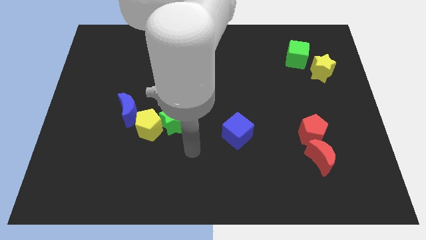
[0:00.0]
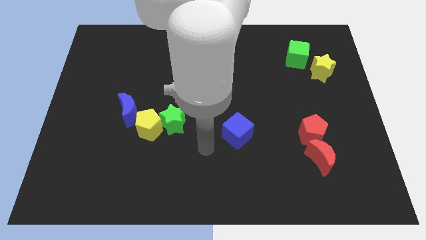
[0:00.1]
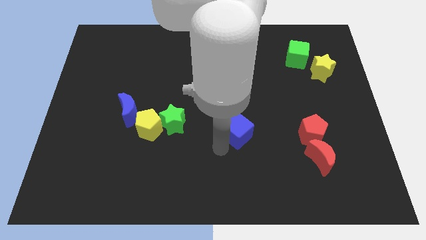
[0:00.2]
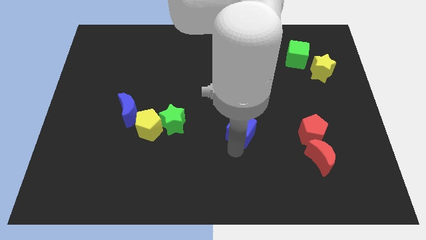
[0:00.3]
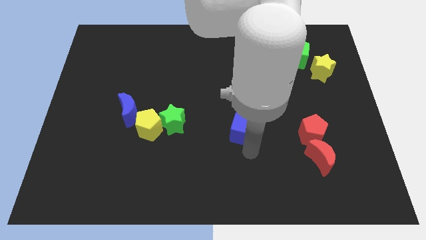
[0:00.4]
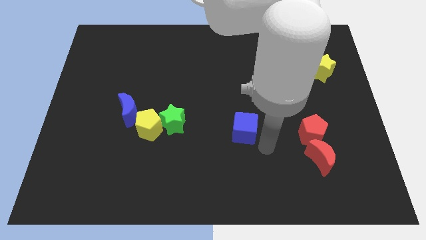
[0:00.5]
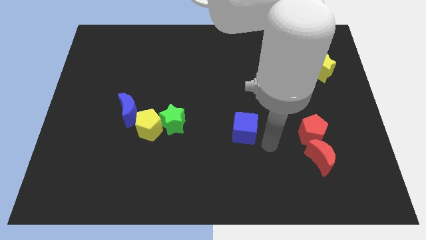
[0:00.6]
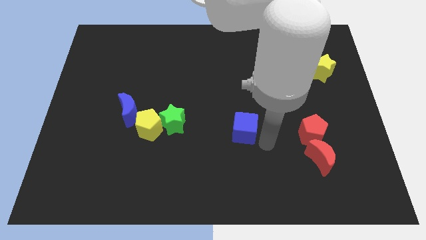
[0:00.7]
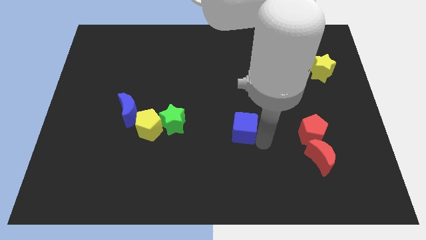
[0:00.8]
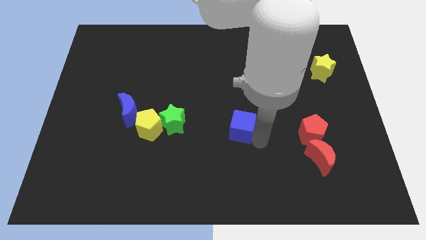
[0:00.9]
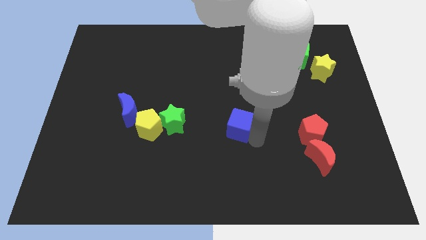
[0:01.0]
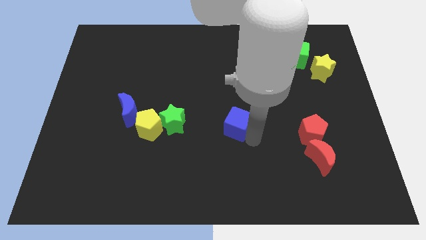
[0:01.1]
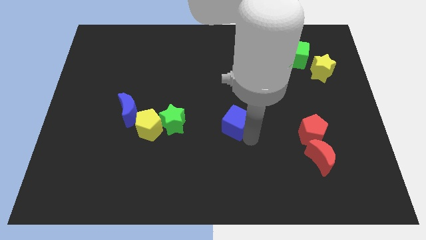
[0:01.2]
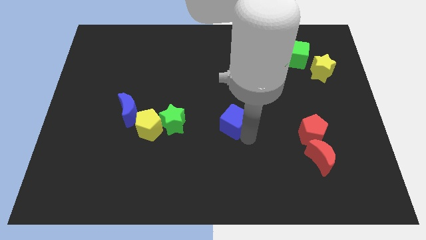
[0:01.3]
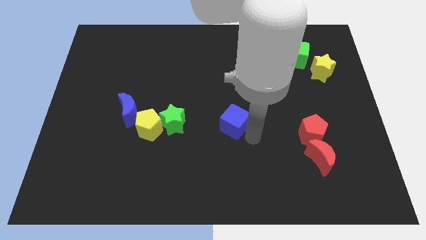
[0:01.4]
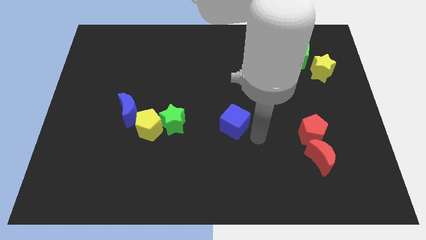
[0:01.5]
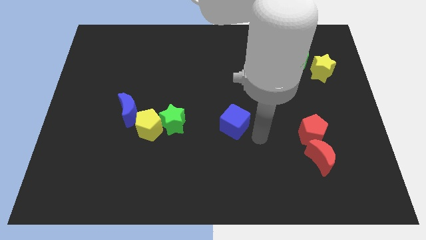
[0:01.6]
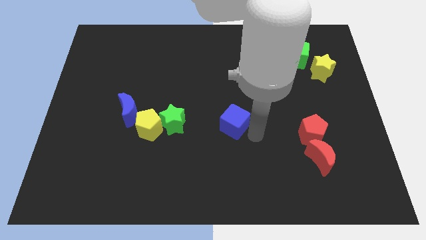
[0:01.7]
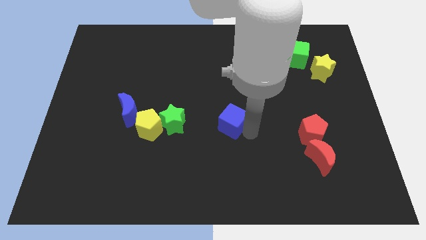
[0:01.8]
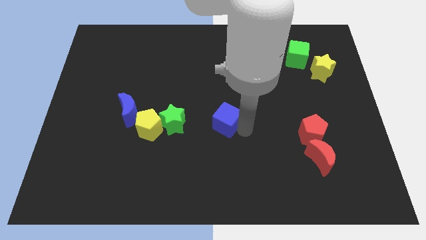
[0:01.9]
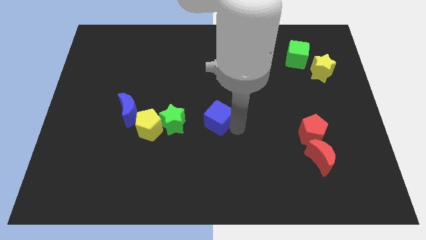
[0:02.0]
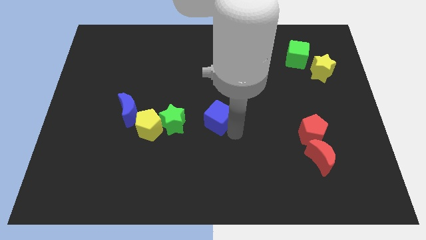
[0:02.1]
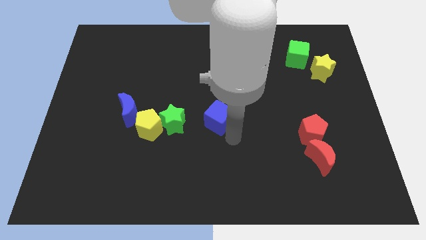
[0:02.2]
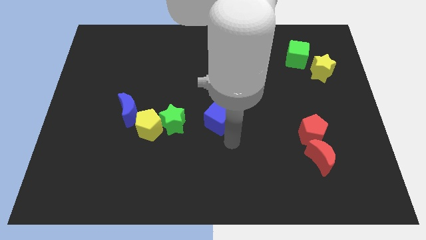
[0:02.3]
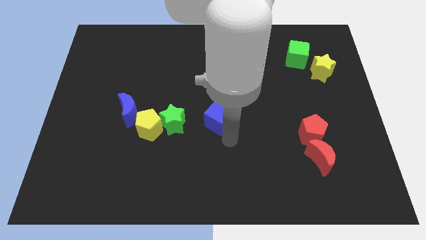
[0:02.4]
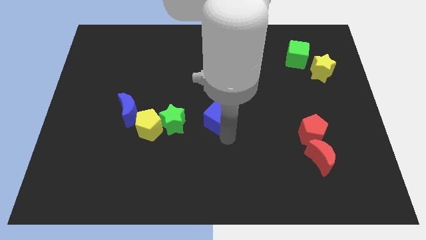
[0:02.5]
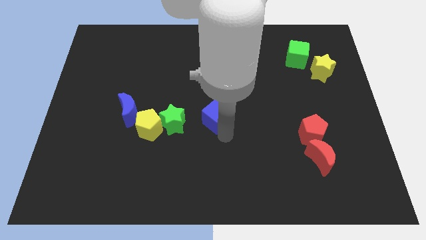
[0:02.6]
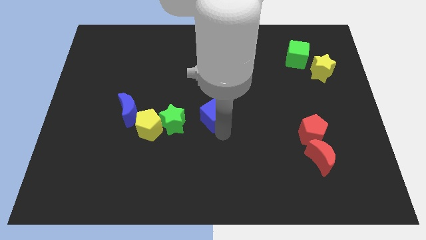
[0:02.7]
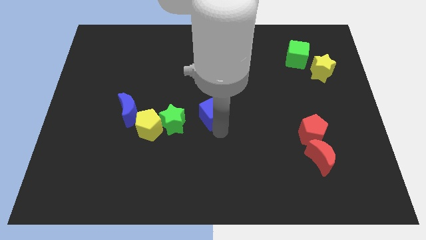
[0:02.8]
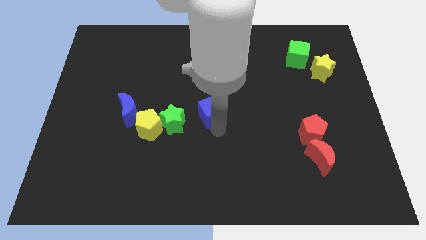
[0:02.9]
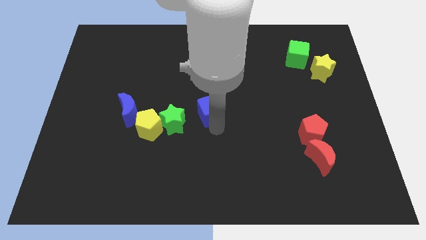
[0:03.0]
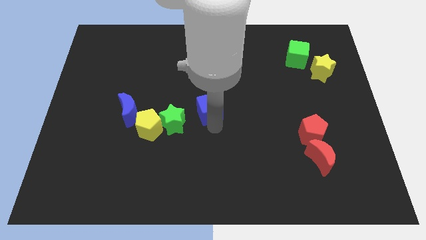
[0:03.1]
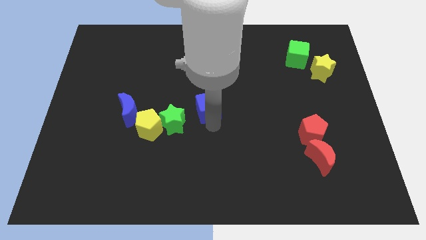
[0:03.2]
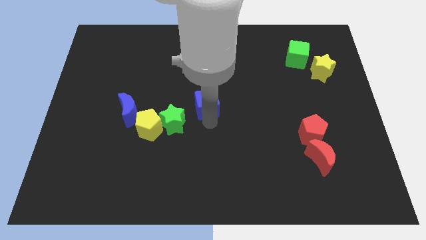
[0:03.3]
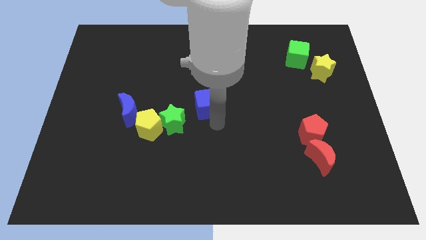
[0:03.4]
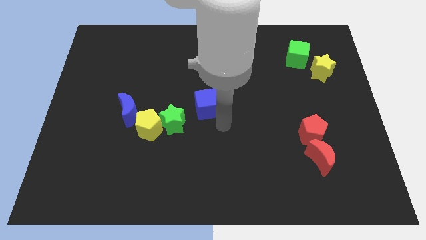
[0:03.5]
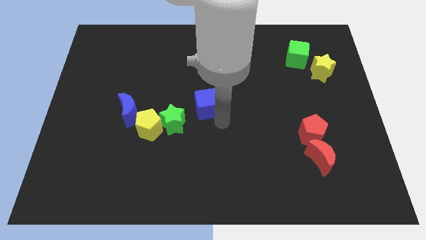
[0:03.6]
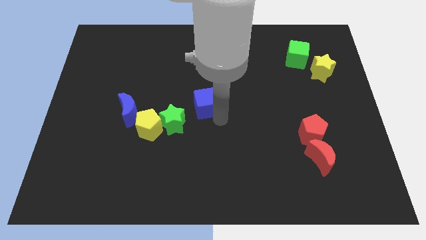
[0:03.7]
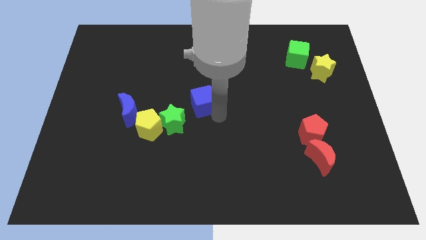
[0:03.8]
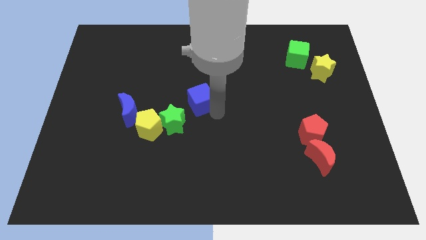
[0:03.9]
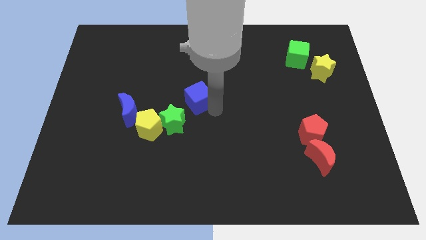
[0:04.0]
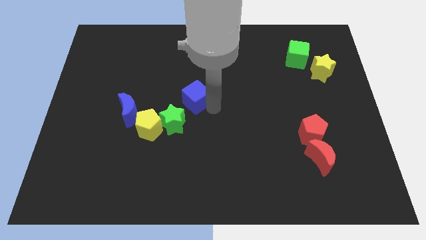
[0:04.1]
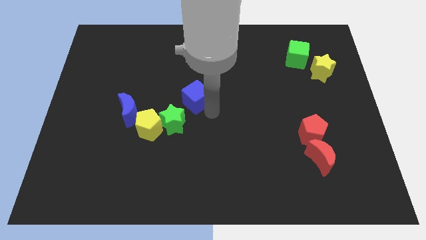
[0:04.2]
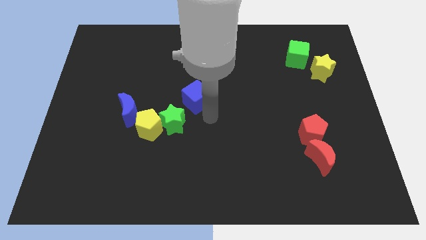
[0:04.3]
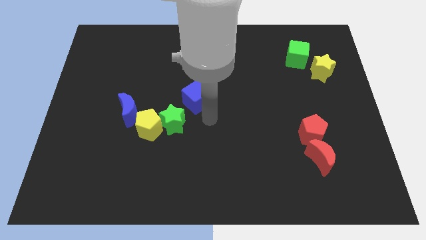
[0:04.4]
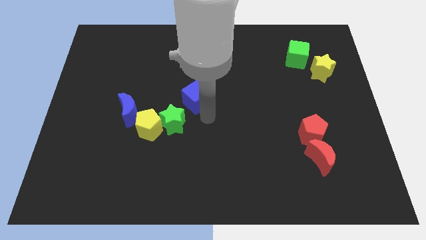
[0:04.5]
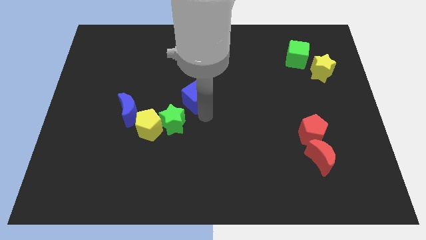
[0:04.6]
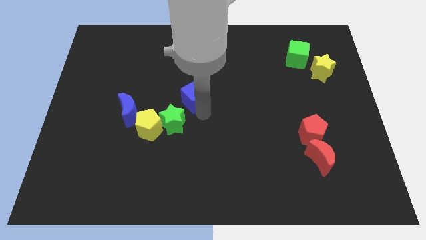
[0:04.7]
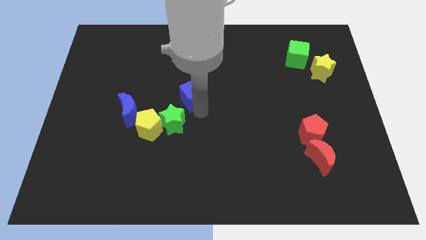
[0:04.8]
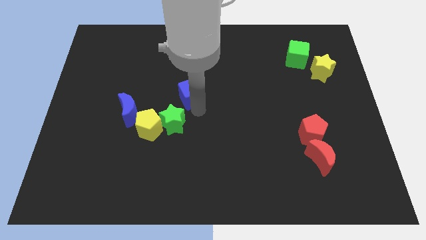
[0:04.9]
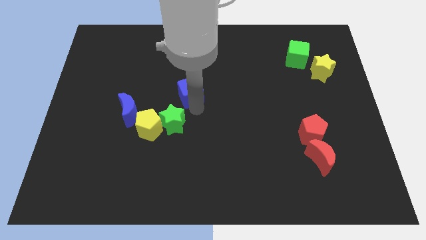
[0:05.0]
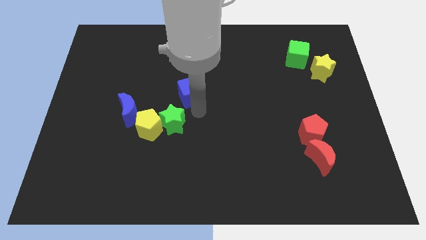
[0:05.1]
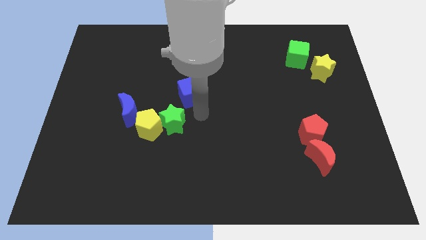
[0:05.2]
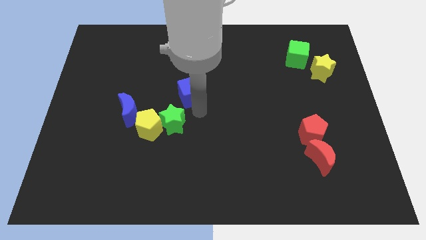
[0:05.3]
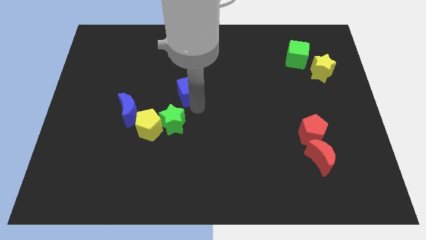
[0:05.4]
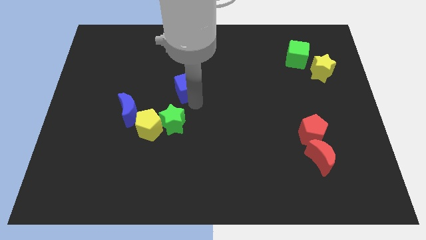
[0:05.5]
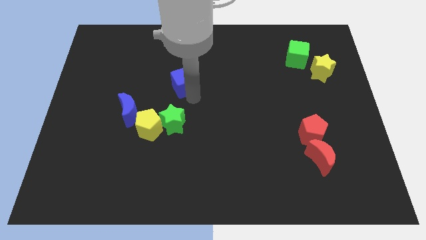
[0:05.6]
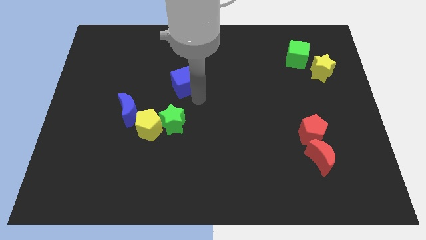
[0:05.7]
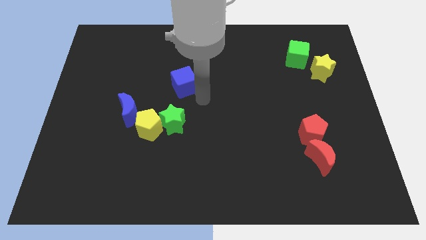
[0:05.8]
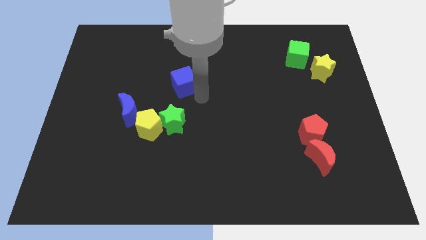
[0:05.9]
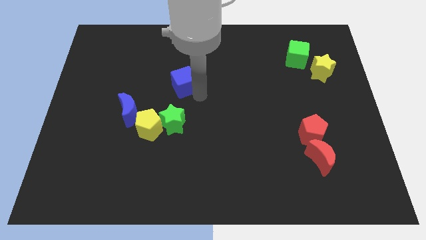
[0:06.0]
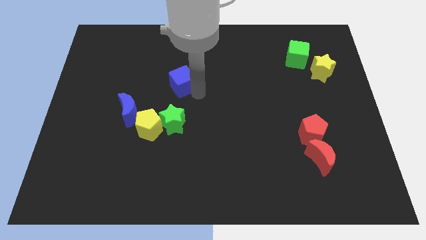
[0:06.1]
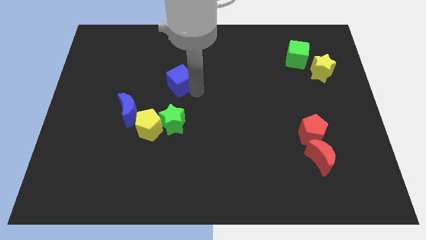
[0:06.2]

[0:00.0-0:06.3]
move the blue cube up and then left

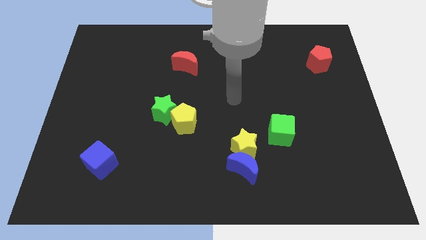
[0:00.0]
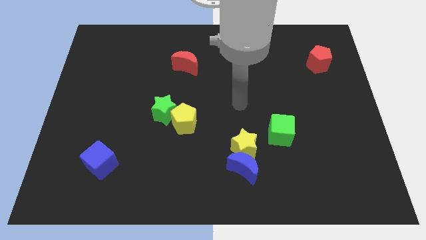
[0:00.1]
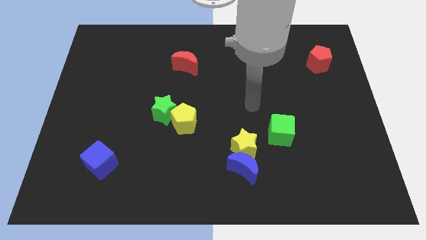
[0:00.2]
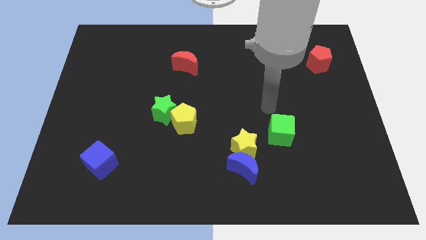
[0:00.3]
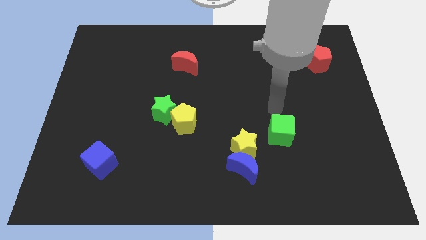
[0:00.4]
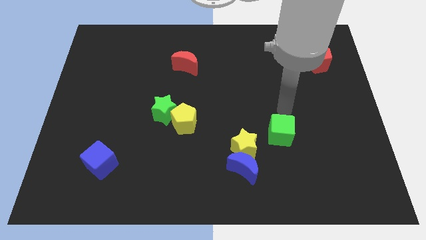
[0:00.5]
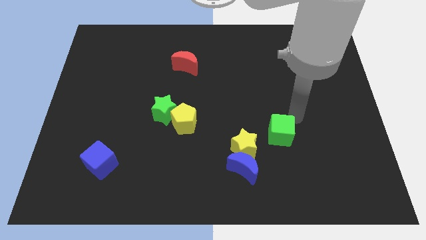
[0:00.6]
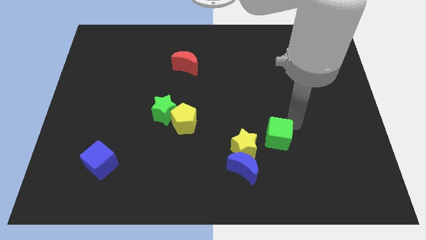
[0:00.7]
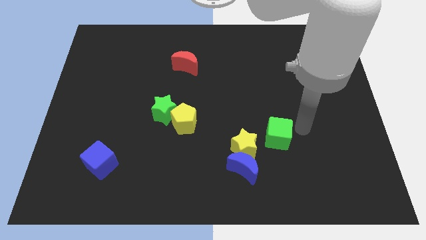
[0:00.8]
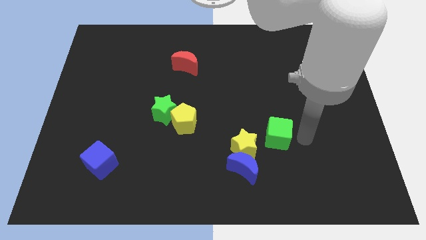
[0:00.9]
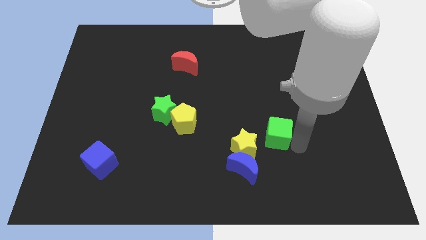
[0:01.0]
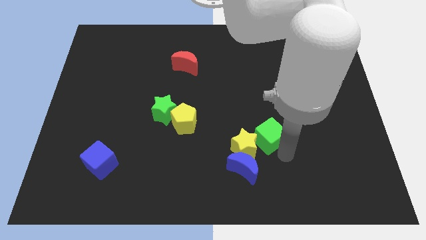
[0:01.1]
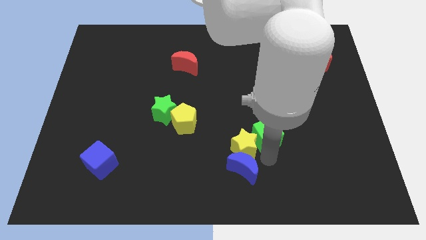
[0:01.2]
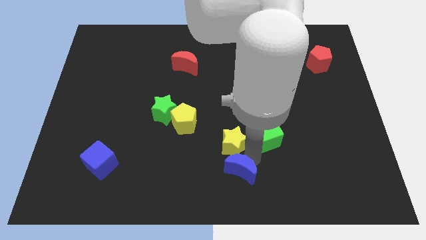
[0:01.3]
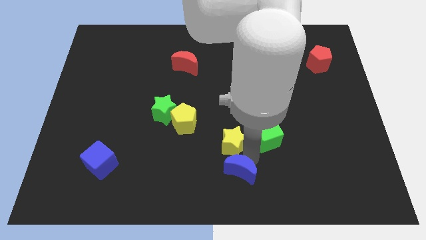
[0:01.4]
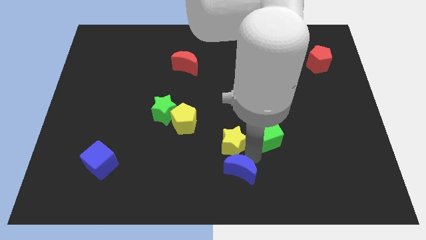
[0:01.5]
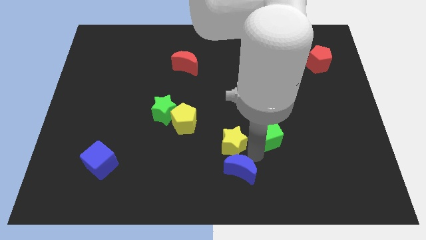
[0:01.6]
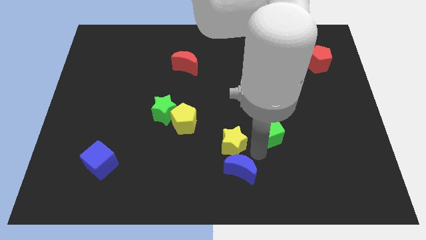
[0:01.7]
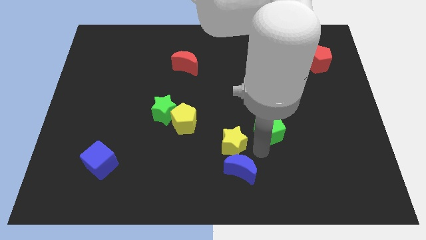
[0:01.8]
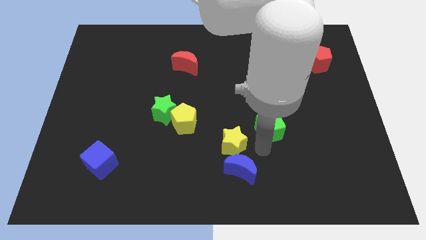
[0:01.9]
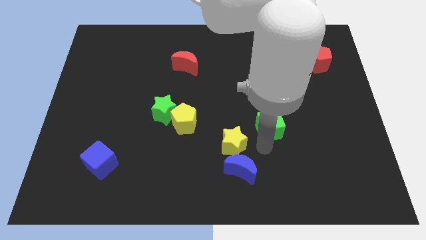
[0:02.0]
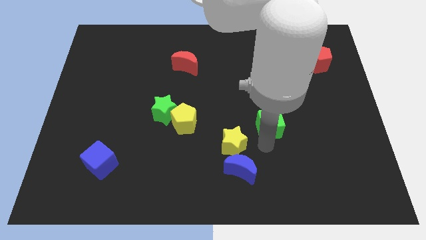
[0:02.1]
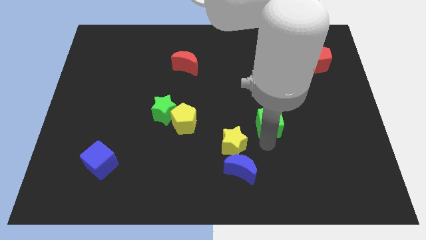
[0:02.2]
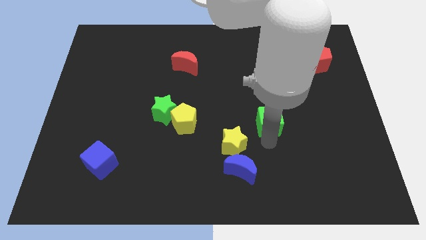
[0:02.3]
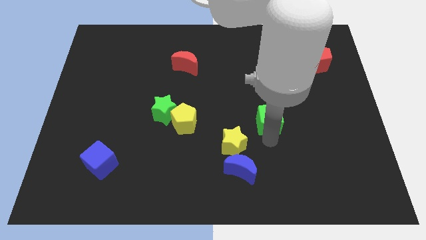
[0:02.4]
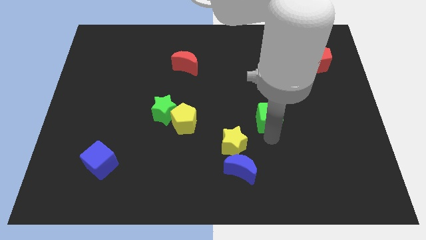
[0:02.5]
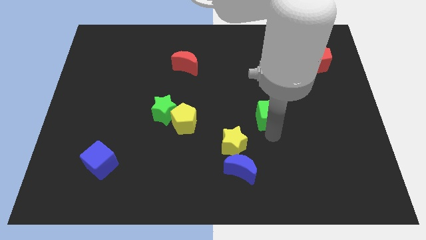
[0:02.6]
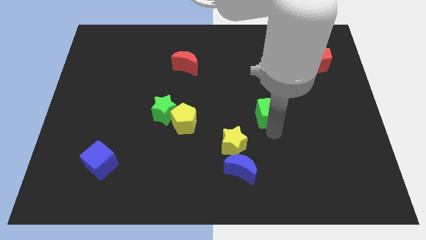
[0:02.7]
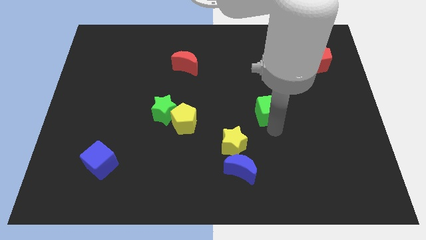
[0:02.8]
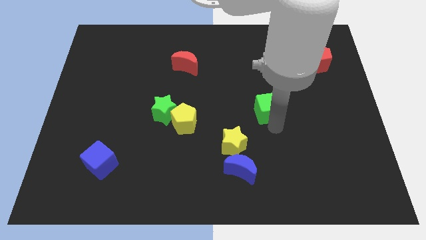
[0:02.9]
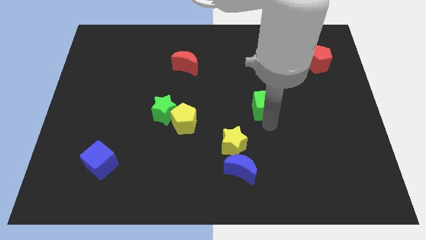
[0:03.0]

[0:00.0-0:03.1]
slightly move the green cube upwards
